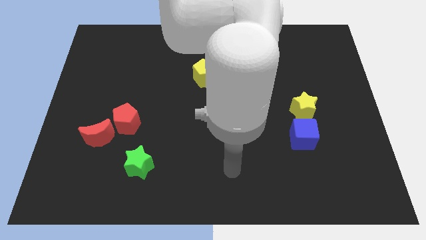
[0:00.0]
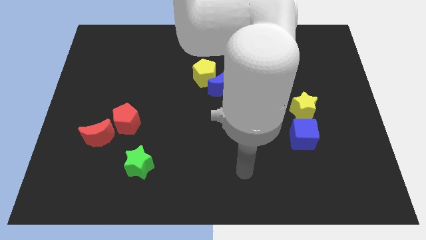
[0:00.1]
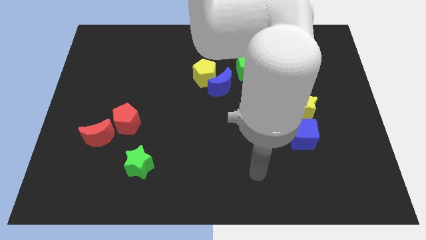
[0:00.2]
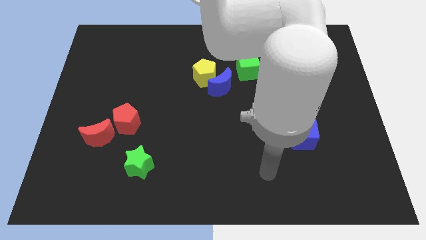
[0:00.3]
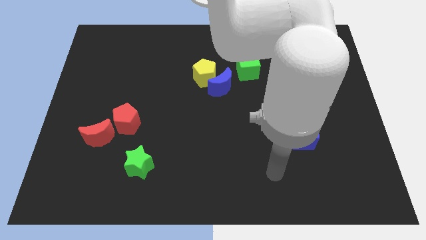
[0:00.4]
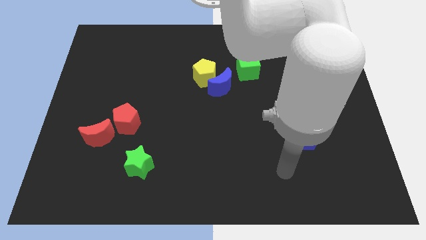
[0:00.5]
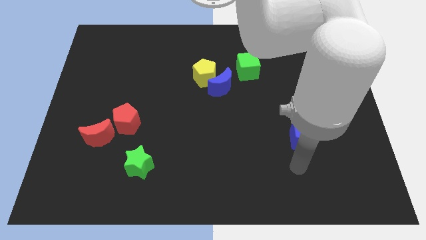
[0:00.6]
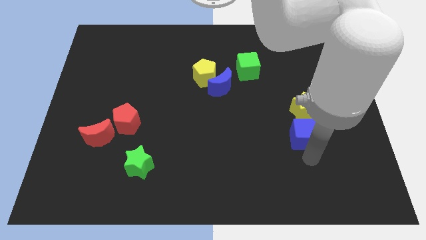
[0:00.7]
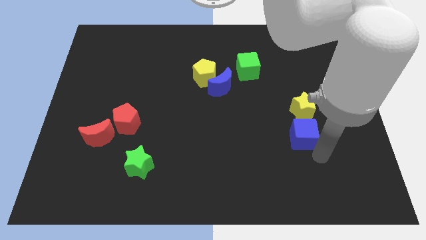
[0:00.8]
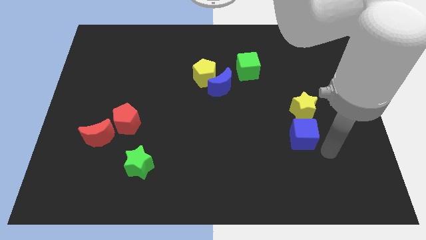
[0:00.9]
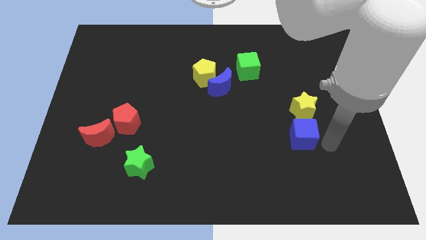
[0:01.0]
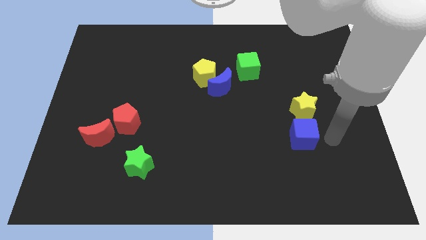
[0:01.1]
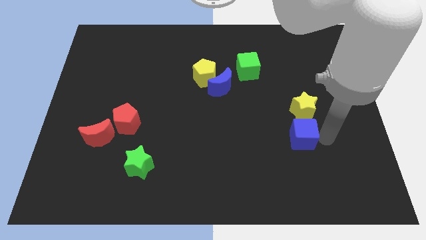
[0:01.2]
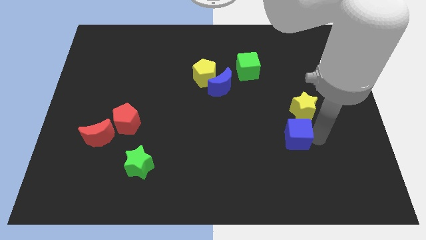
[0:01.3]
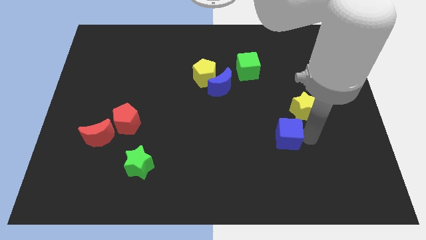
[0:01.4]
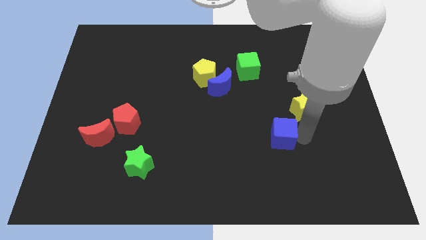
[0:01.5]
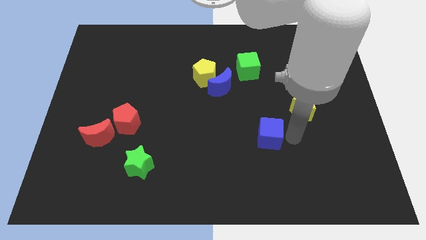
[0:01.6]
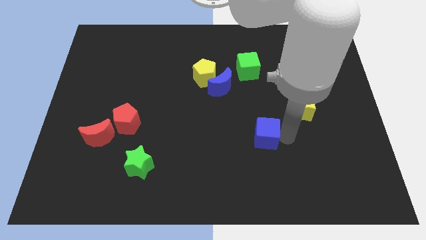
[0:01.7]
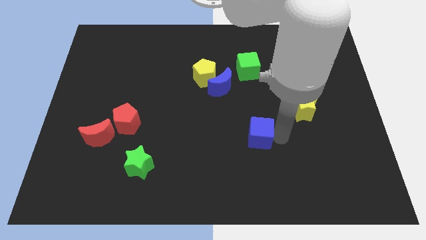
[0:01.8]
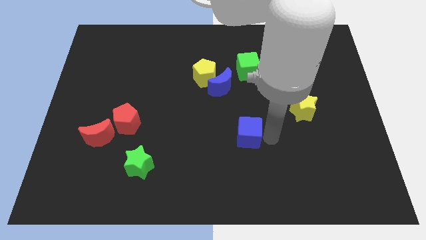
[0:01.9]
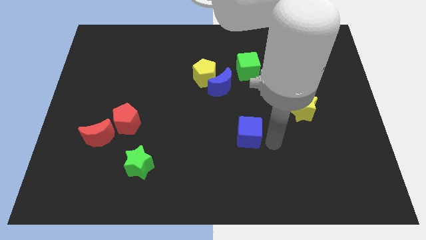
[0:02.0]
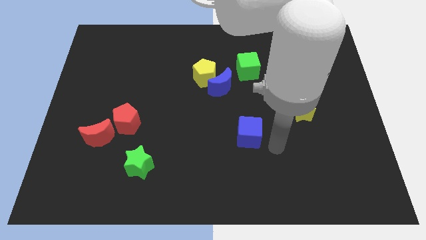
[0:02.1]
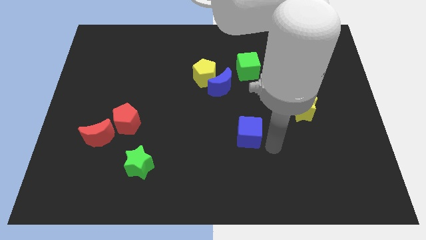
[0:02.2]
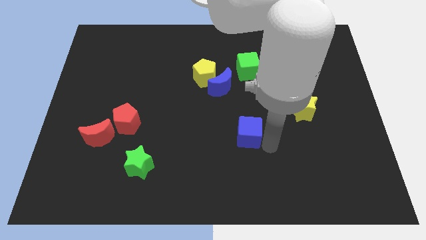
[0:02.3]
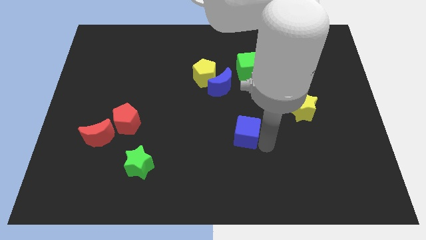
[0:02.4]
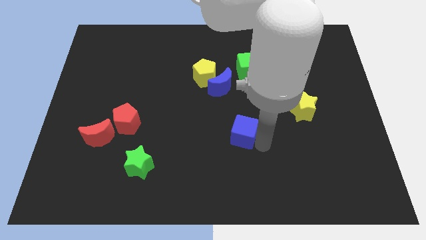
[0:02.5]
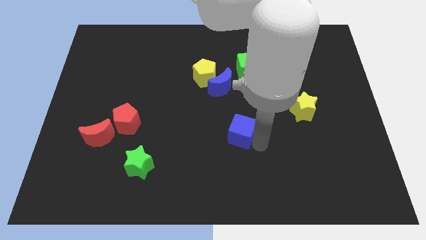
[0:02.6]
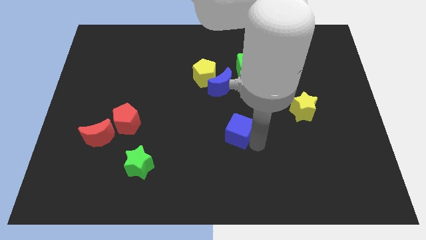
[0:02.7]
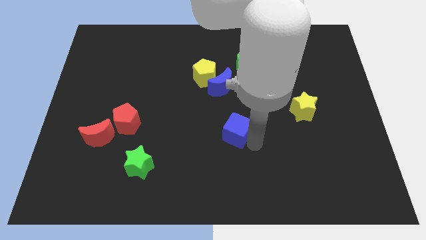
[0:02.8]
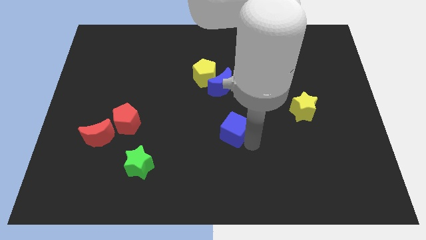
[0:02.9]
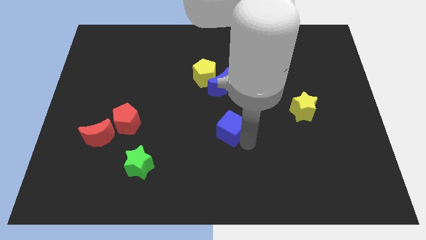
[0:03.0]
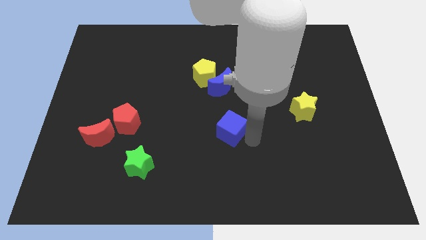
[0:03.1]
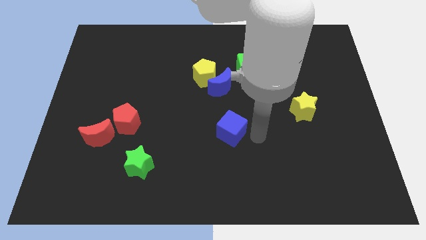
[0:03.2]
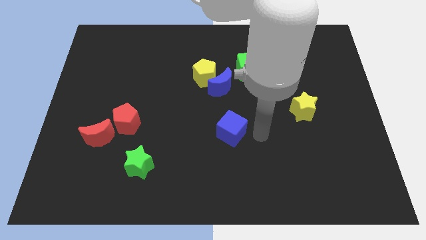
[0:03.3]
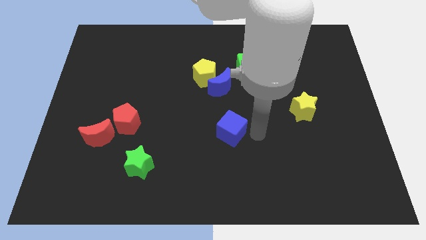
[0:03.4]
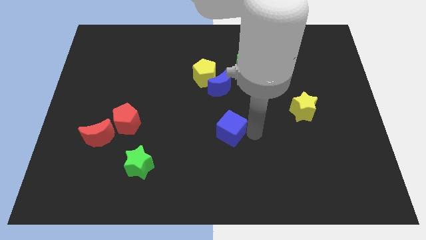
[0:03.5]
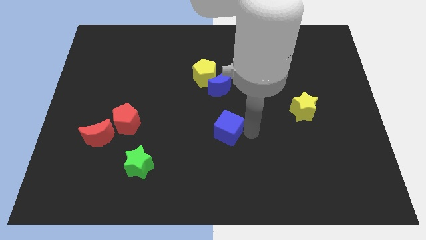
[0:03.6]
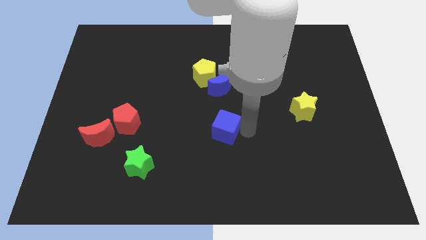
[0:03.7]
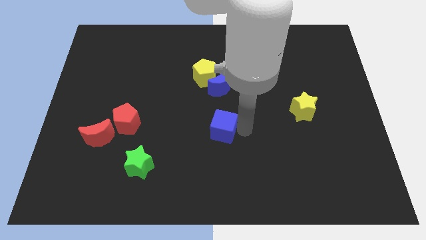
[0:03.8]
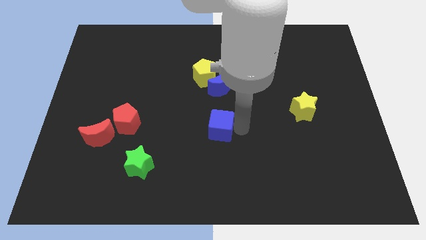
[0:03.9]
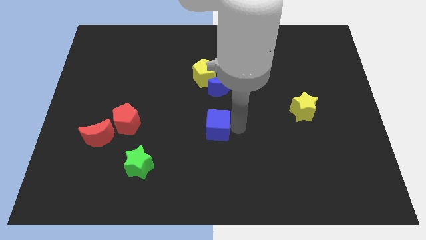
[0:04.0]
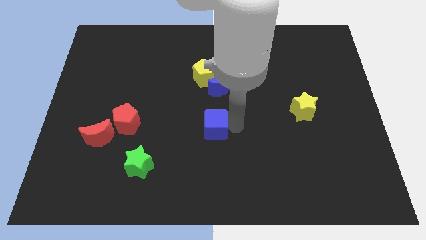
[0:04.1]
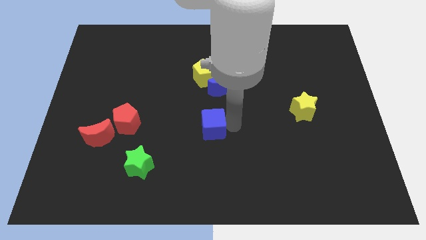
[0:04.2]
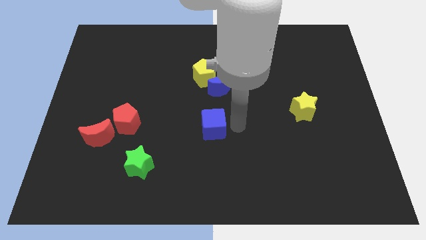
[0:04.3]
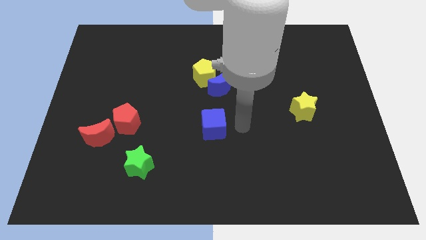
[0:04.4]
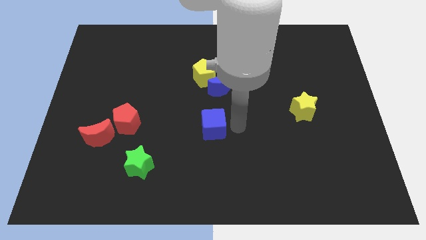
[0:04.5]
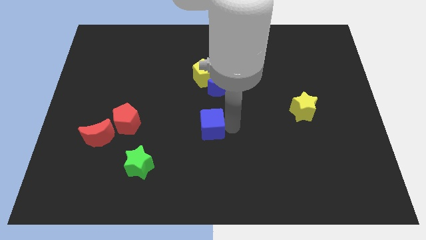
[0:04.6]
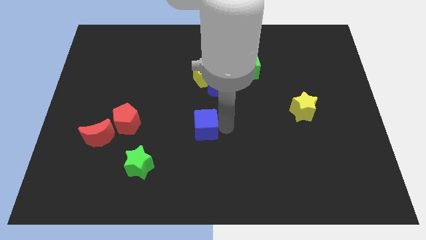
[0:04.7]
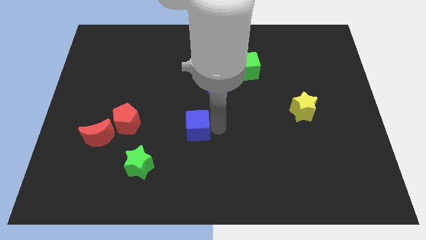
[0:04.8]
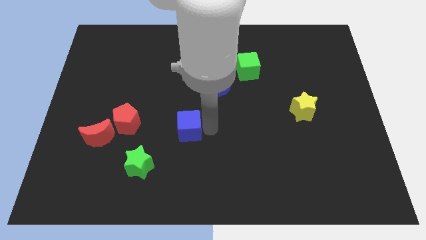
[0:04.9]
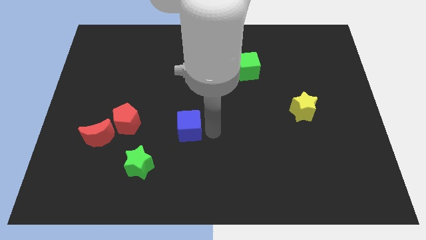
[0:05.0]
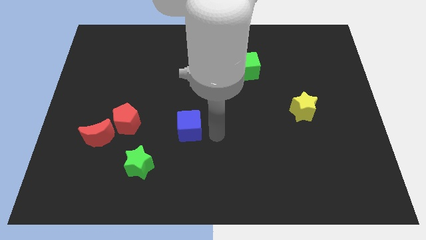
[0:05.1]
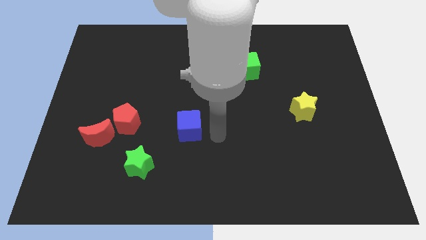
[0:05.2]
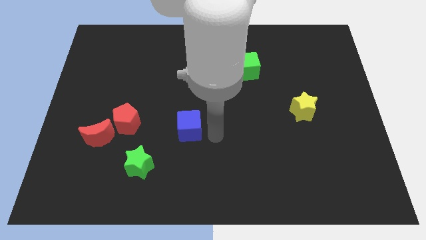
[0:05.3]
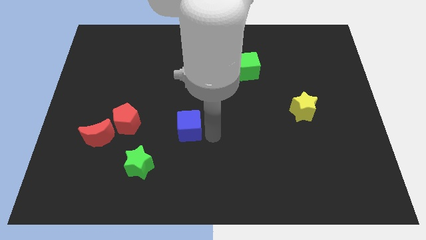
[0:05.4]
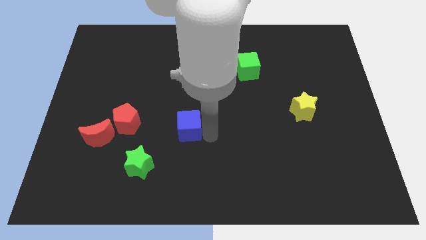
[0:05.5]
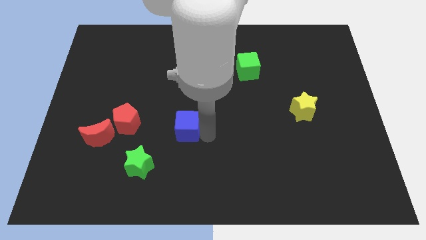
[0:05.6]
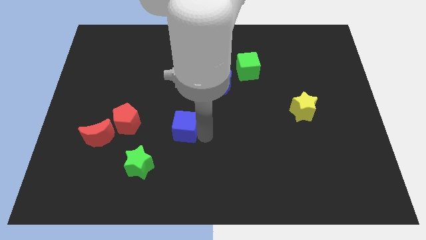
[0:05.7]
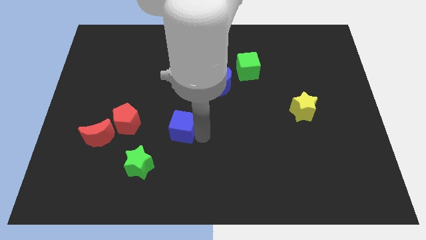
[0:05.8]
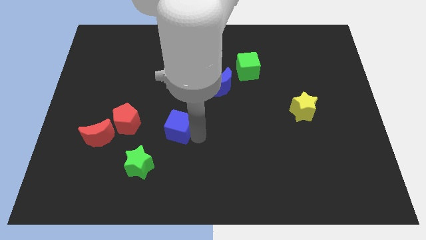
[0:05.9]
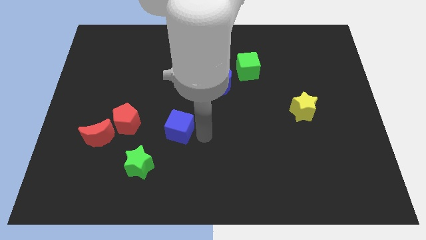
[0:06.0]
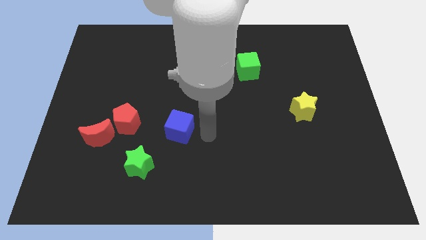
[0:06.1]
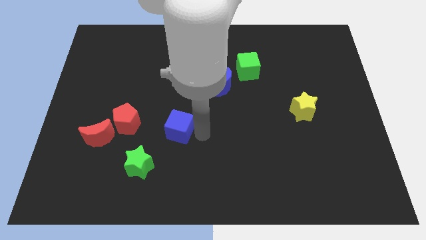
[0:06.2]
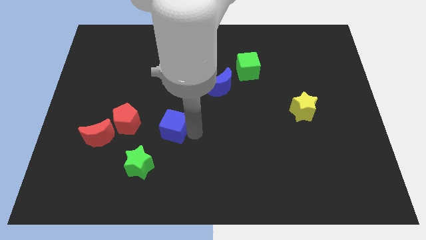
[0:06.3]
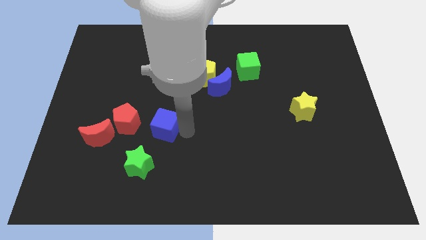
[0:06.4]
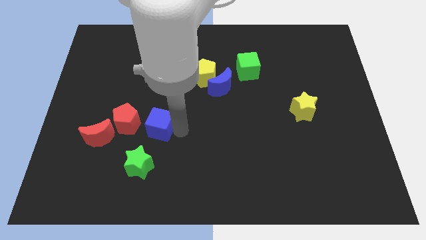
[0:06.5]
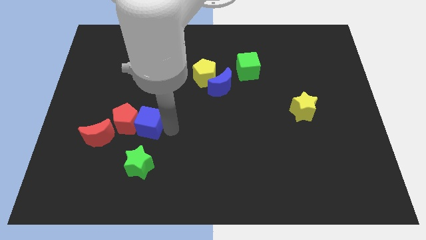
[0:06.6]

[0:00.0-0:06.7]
move the blue cube close to the red pentagon
